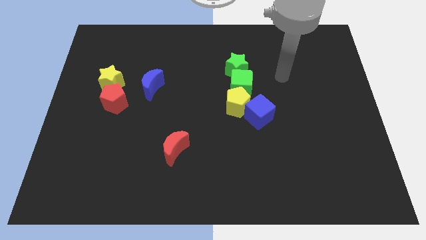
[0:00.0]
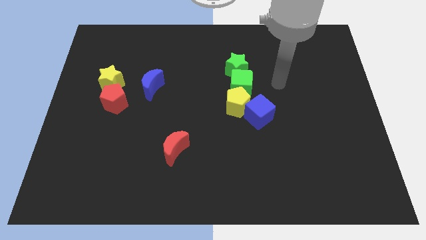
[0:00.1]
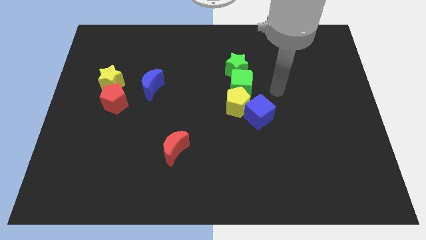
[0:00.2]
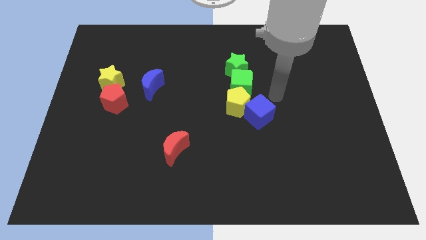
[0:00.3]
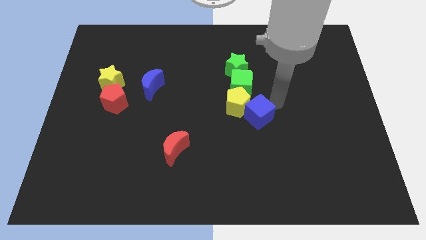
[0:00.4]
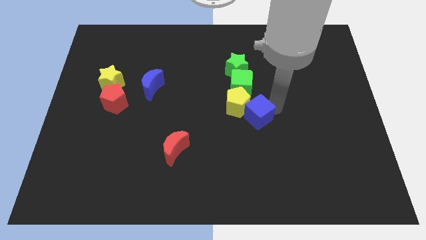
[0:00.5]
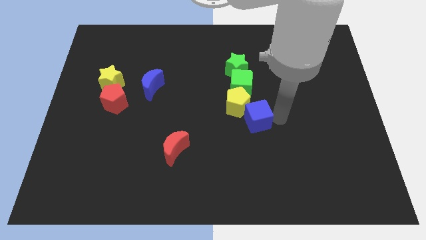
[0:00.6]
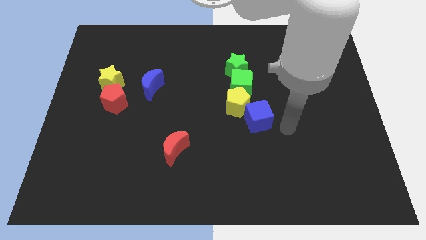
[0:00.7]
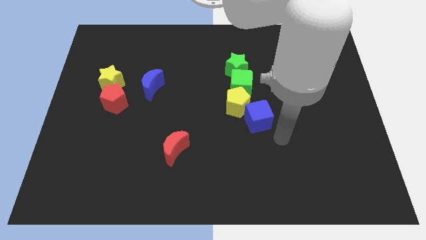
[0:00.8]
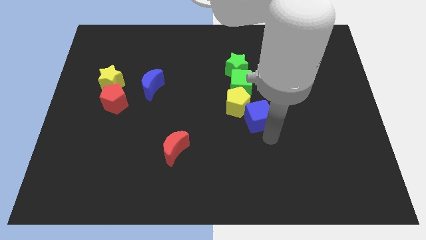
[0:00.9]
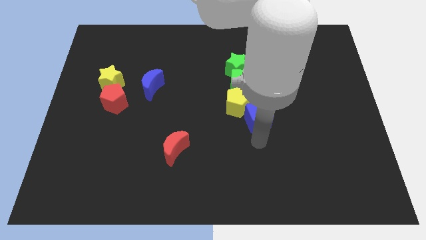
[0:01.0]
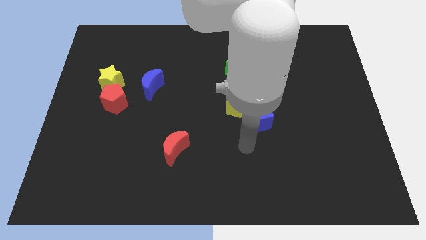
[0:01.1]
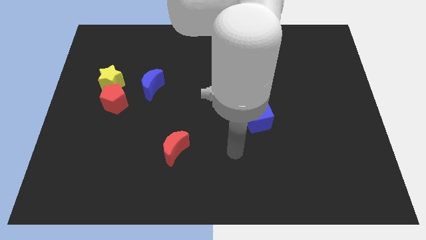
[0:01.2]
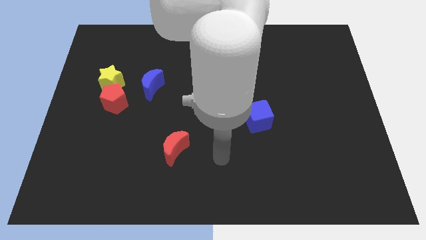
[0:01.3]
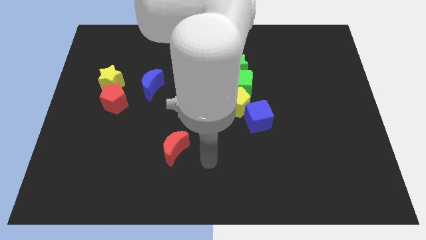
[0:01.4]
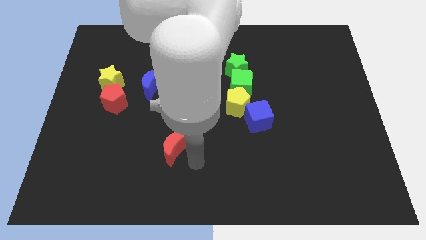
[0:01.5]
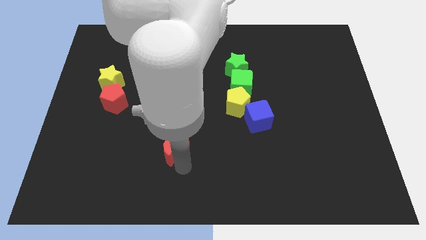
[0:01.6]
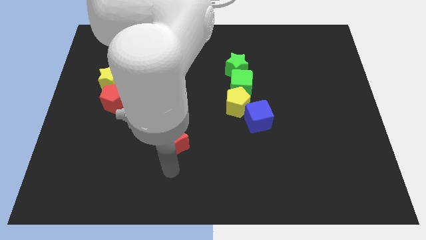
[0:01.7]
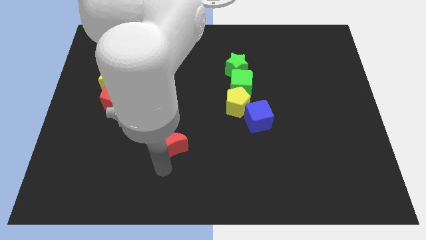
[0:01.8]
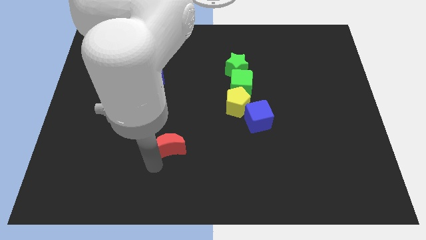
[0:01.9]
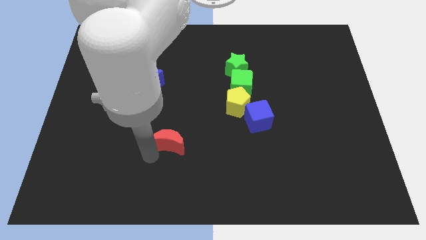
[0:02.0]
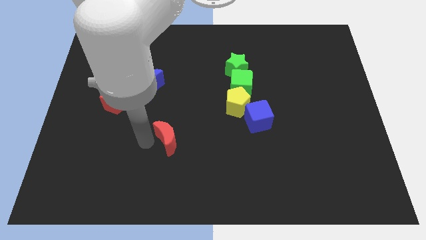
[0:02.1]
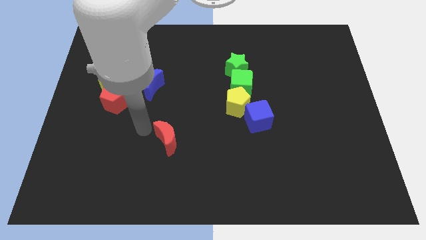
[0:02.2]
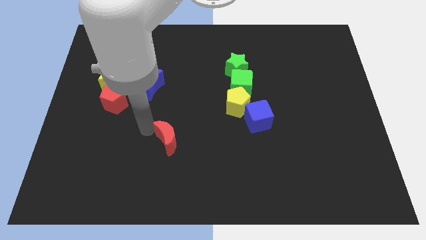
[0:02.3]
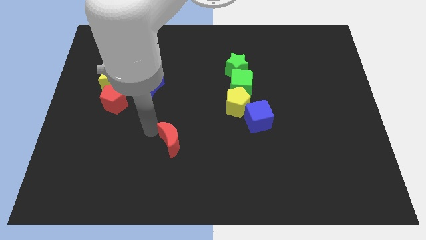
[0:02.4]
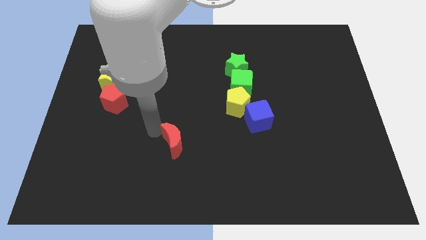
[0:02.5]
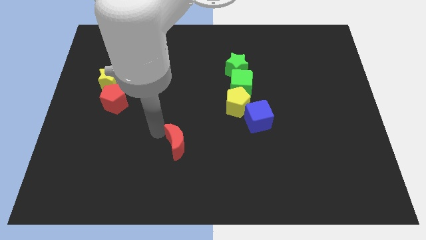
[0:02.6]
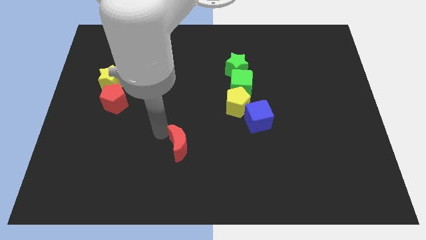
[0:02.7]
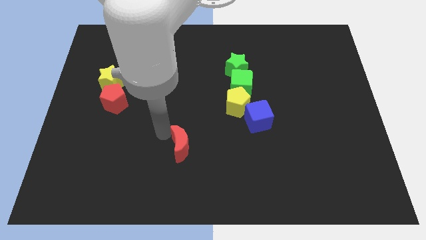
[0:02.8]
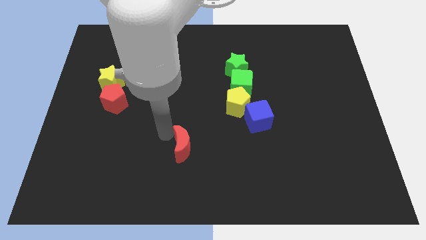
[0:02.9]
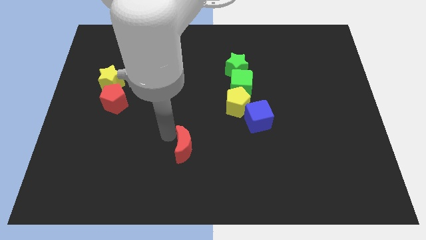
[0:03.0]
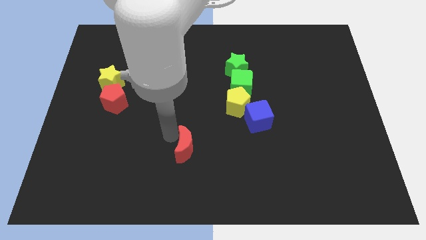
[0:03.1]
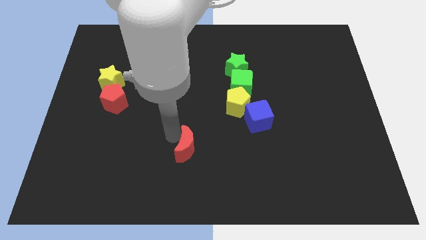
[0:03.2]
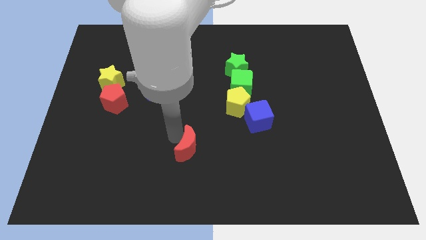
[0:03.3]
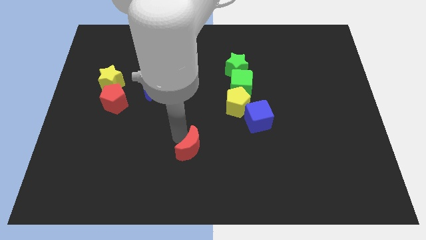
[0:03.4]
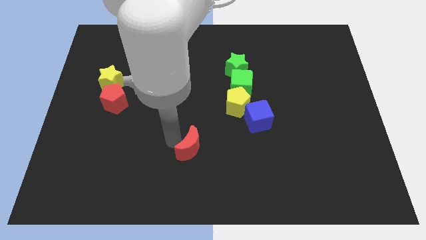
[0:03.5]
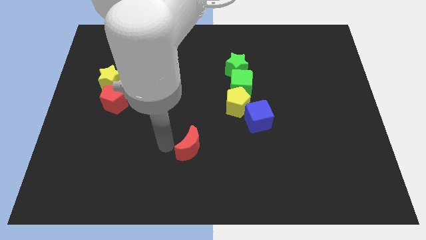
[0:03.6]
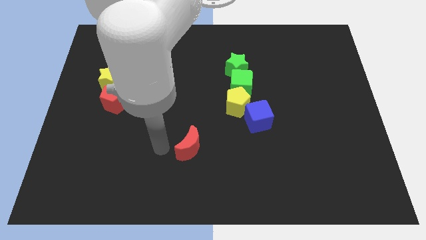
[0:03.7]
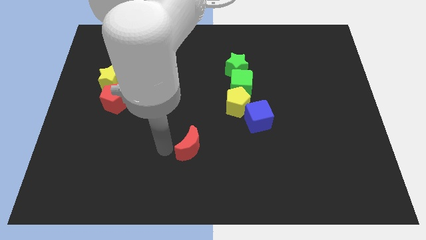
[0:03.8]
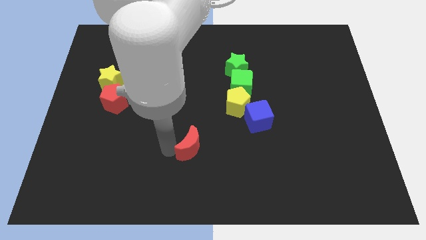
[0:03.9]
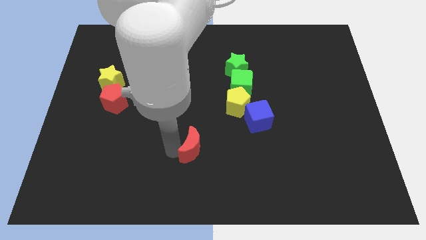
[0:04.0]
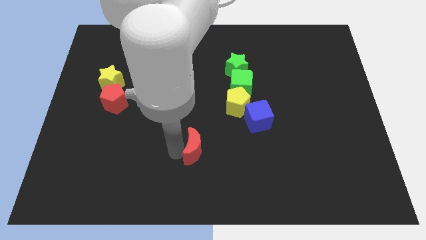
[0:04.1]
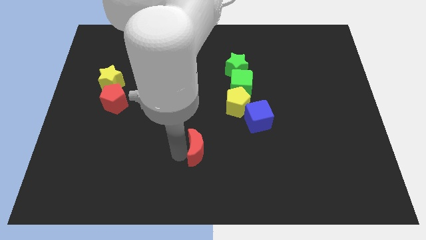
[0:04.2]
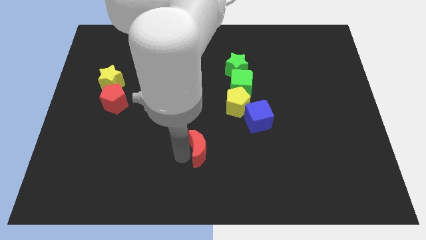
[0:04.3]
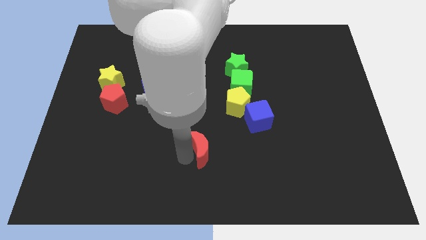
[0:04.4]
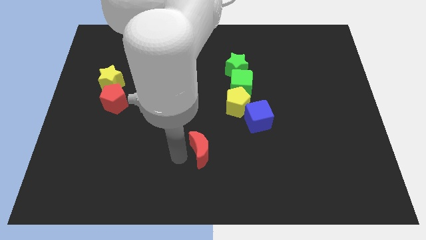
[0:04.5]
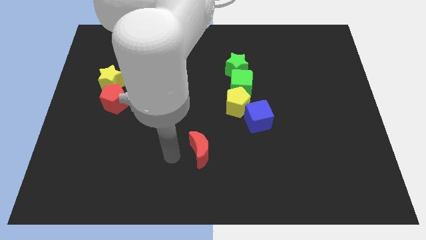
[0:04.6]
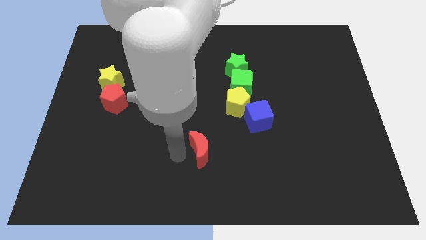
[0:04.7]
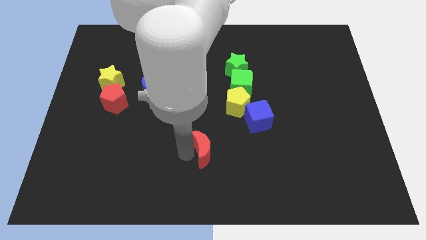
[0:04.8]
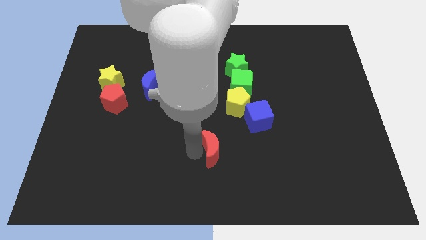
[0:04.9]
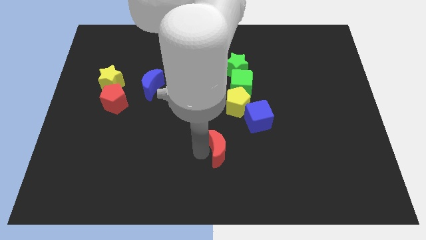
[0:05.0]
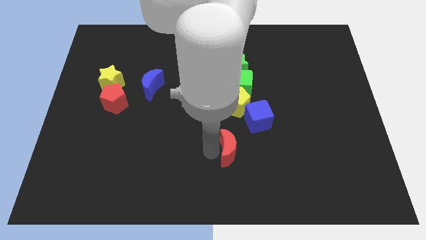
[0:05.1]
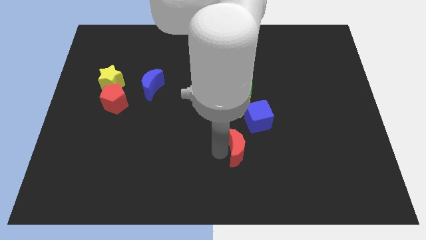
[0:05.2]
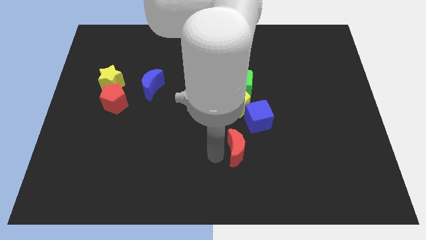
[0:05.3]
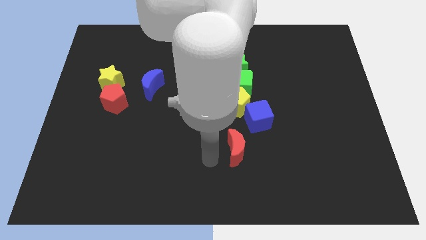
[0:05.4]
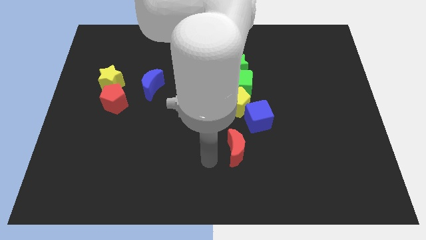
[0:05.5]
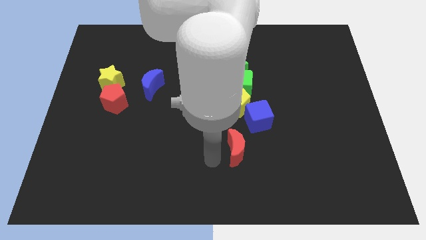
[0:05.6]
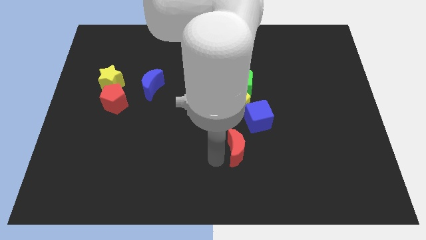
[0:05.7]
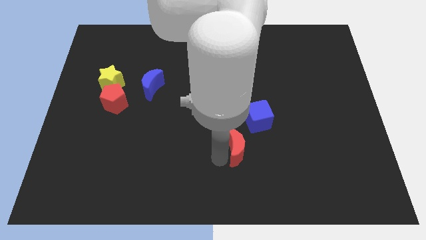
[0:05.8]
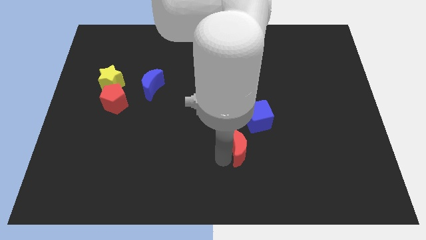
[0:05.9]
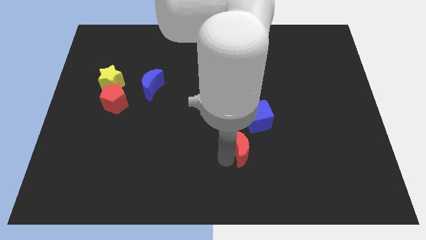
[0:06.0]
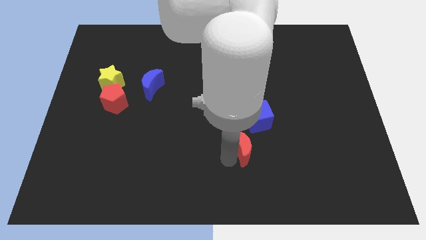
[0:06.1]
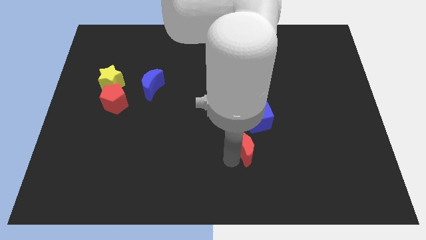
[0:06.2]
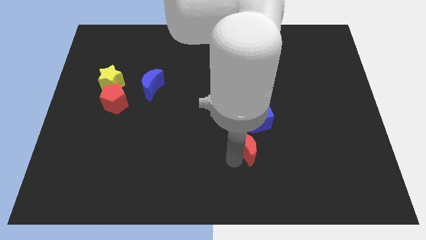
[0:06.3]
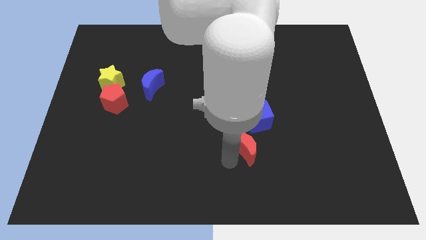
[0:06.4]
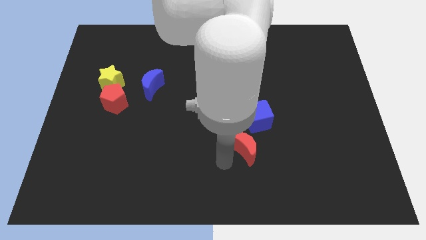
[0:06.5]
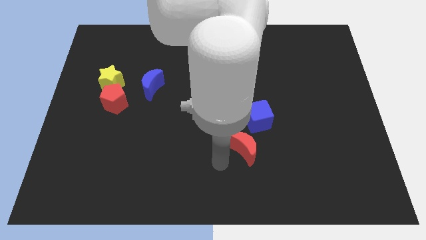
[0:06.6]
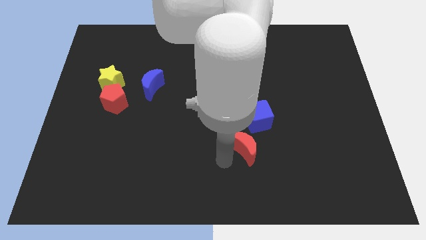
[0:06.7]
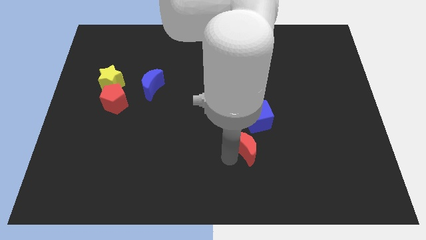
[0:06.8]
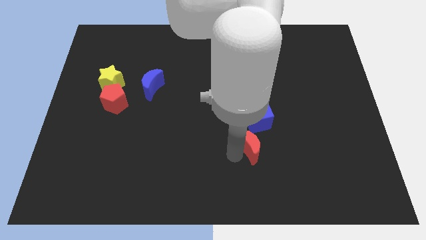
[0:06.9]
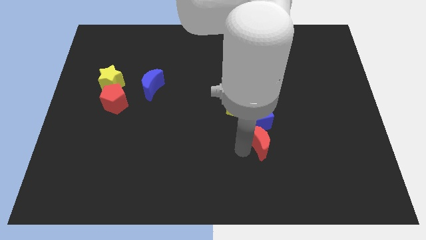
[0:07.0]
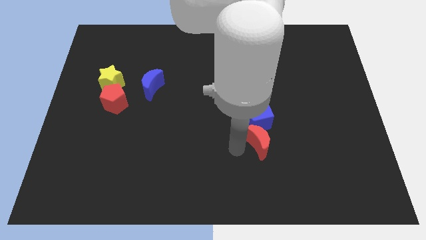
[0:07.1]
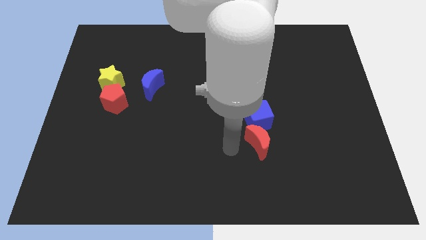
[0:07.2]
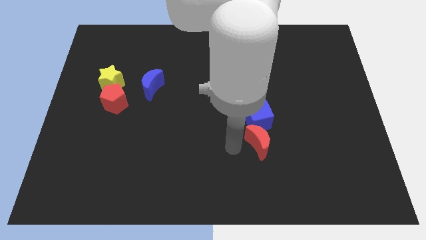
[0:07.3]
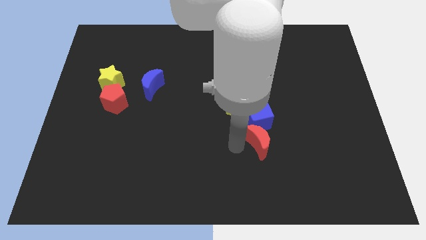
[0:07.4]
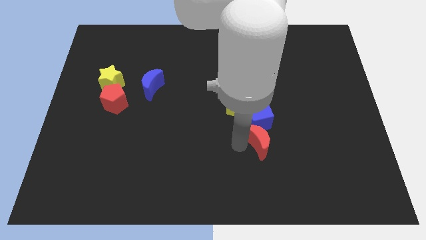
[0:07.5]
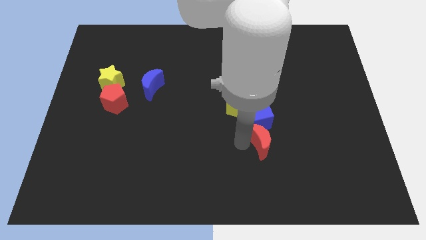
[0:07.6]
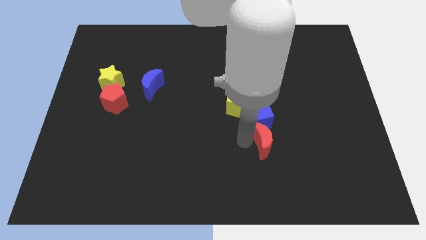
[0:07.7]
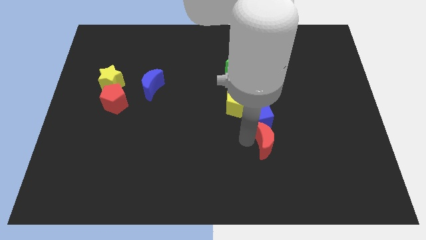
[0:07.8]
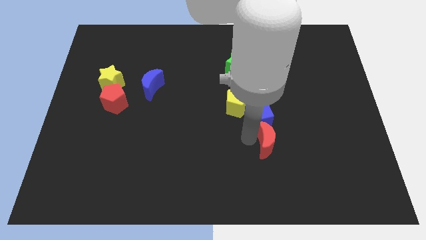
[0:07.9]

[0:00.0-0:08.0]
slide the red moon to the right
